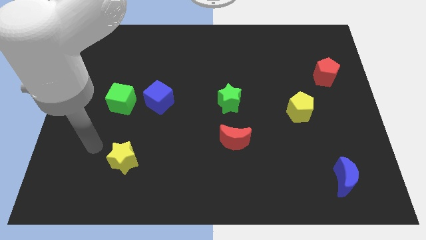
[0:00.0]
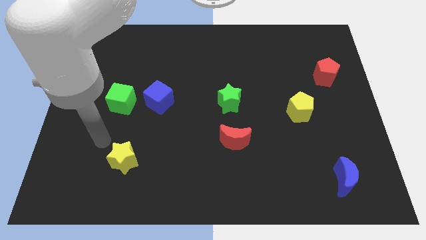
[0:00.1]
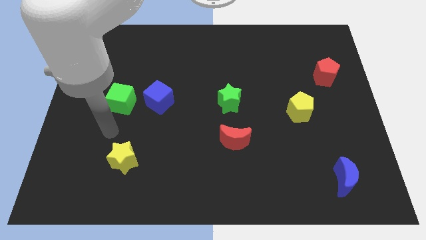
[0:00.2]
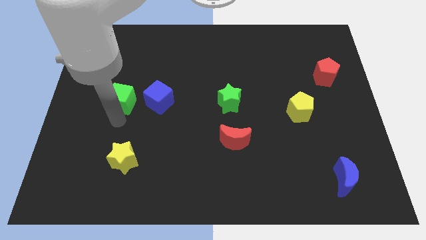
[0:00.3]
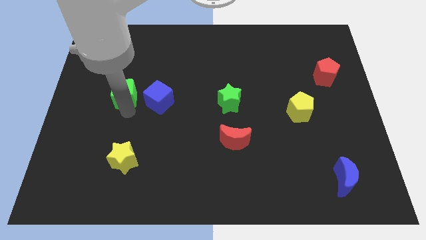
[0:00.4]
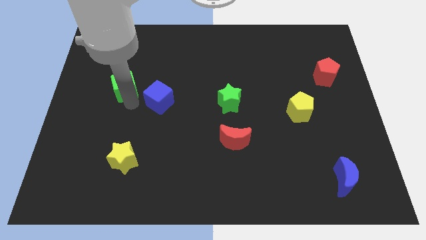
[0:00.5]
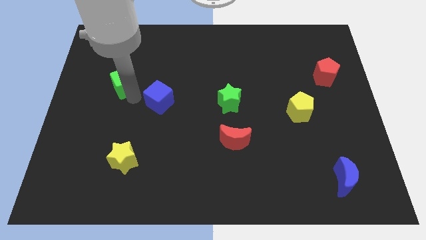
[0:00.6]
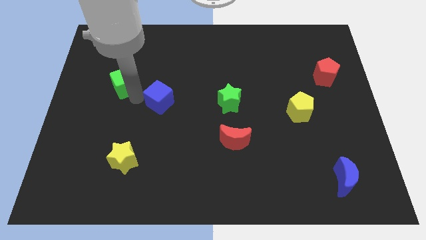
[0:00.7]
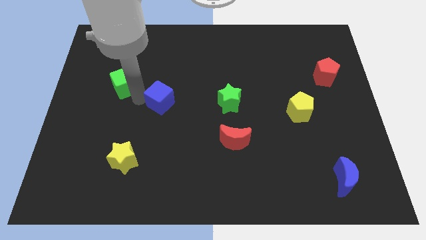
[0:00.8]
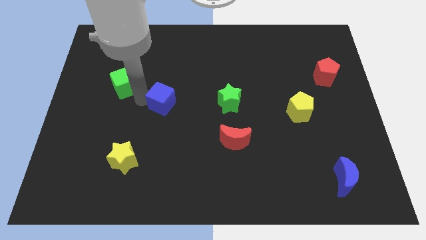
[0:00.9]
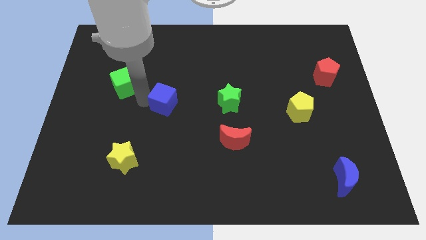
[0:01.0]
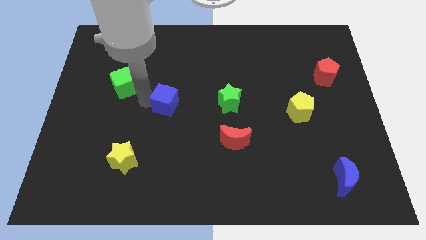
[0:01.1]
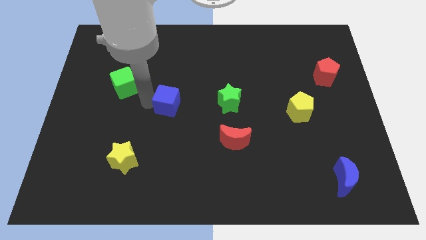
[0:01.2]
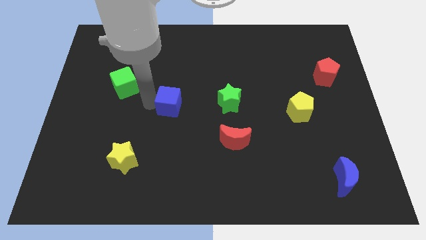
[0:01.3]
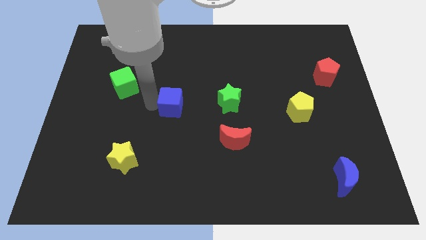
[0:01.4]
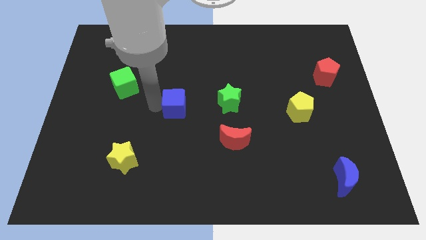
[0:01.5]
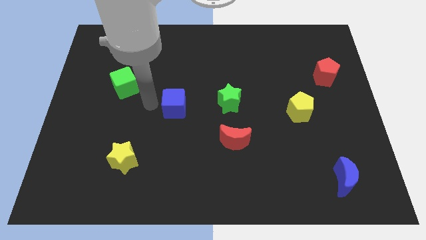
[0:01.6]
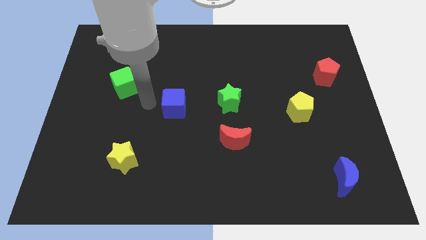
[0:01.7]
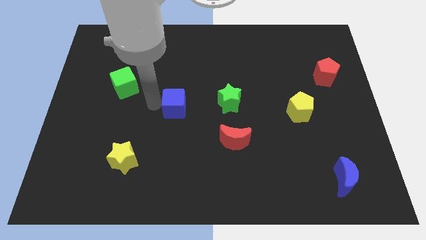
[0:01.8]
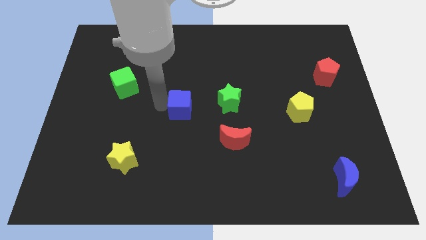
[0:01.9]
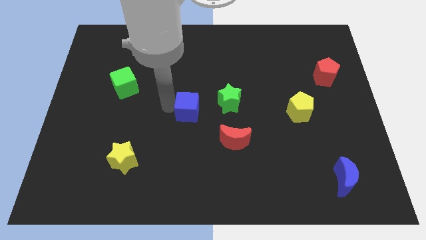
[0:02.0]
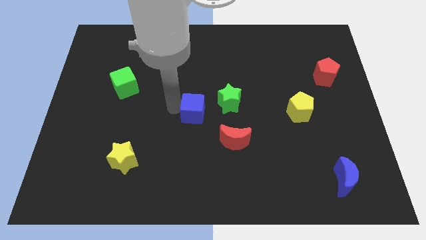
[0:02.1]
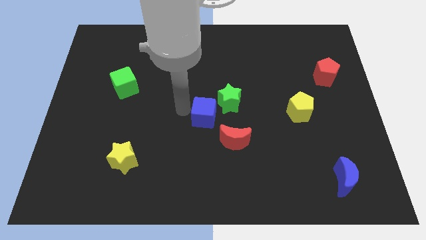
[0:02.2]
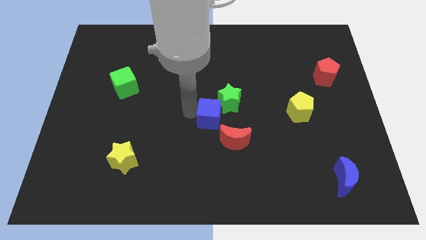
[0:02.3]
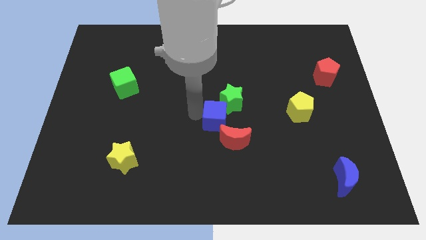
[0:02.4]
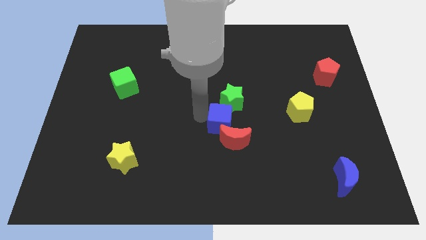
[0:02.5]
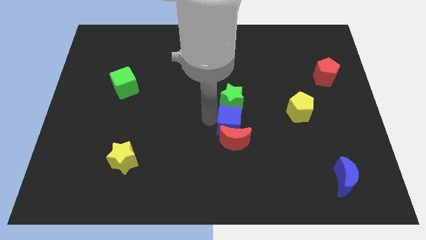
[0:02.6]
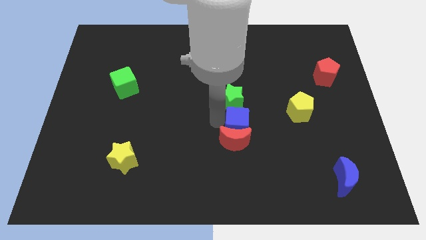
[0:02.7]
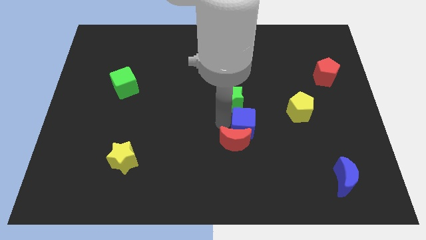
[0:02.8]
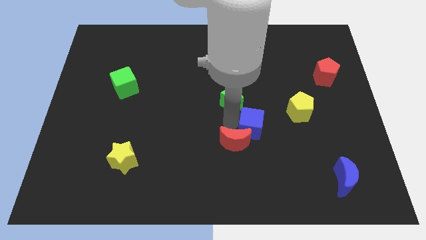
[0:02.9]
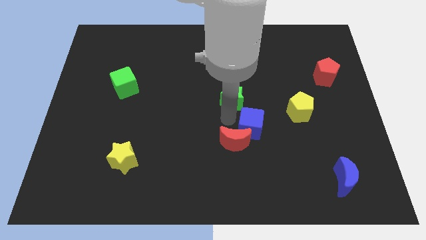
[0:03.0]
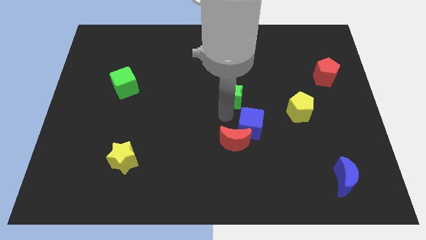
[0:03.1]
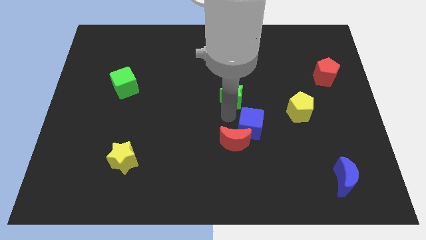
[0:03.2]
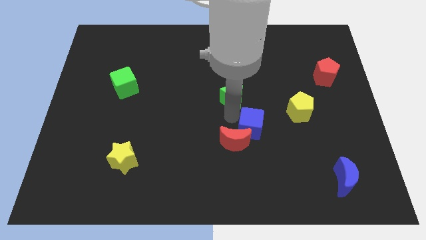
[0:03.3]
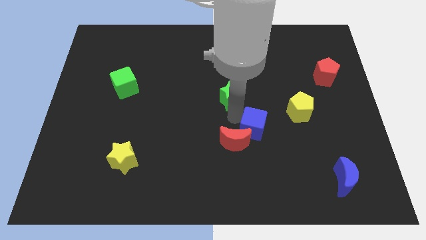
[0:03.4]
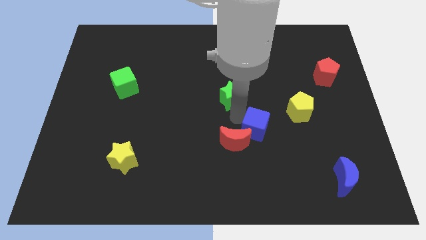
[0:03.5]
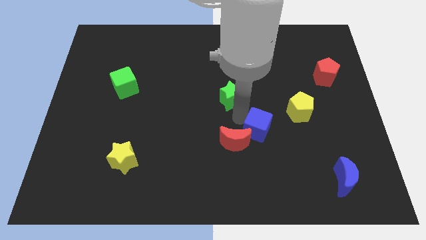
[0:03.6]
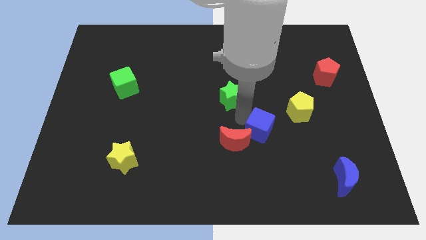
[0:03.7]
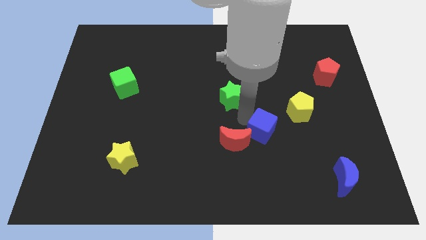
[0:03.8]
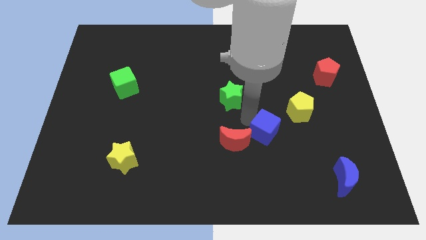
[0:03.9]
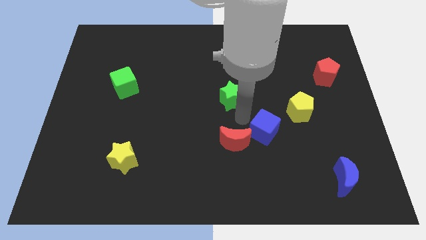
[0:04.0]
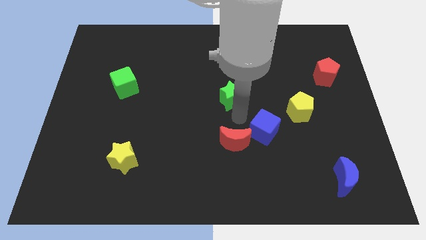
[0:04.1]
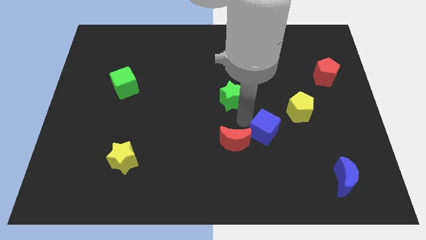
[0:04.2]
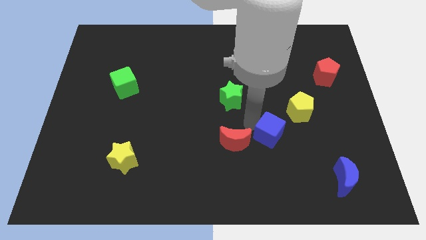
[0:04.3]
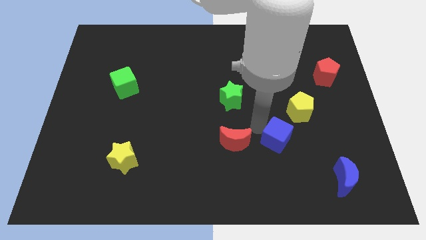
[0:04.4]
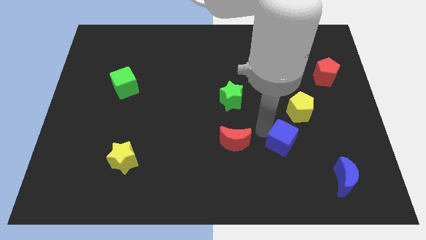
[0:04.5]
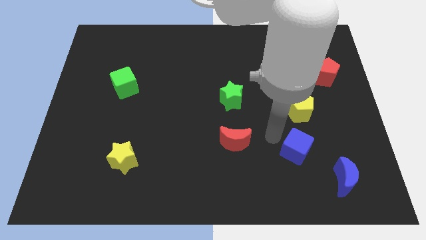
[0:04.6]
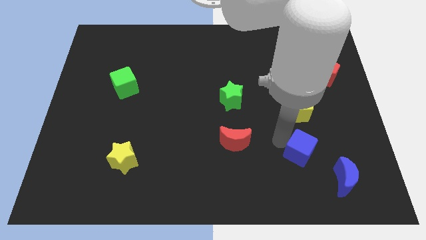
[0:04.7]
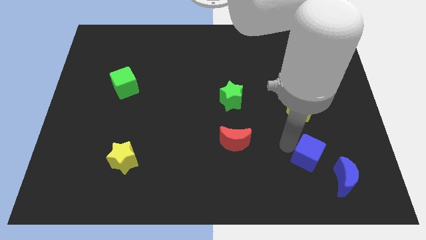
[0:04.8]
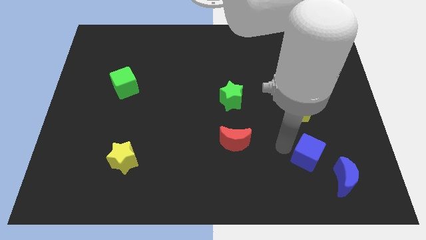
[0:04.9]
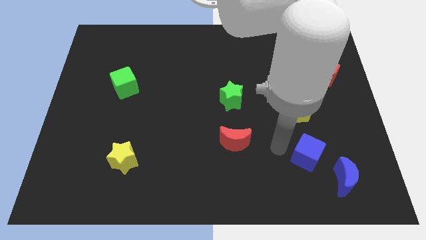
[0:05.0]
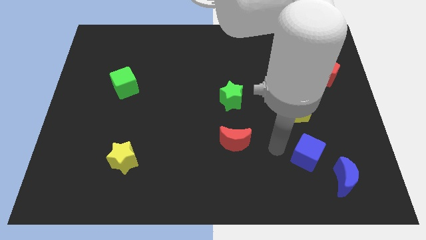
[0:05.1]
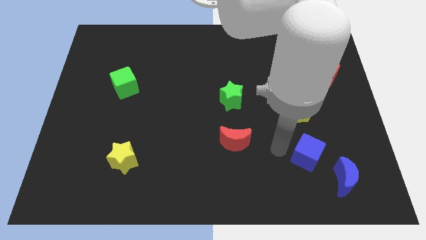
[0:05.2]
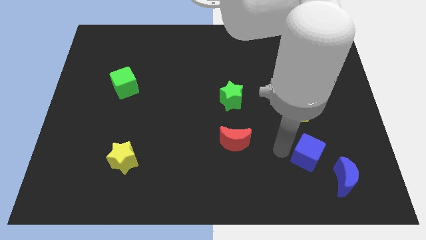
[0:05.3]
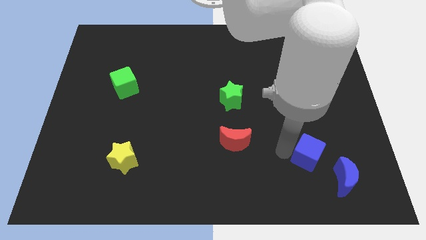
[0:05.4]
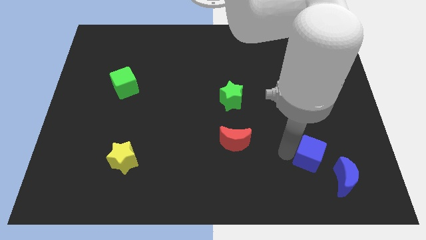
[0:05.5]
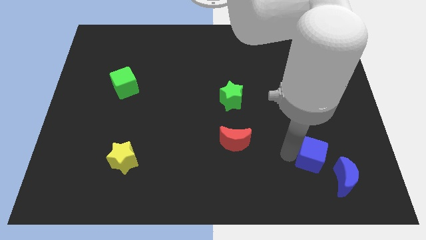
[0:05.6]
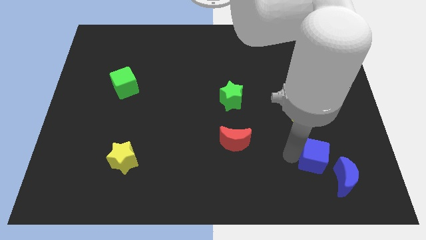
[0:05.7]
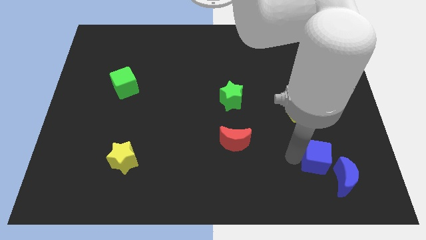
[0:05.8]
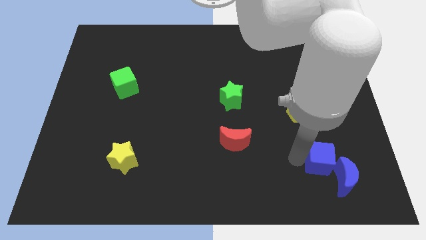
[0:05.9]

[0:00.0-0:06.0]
slide the blue cube towards the blue moon
